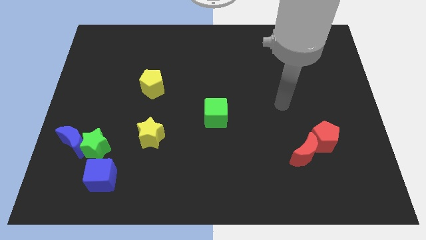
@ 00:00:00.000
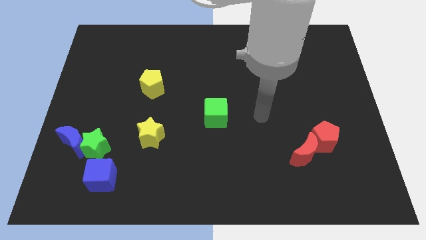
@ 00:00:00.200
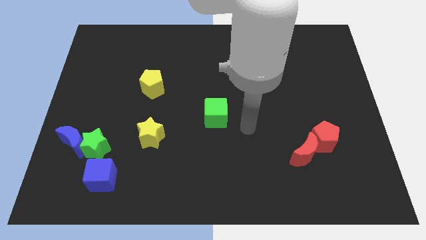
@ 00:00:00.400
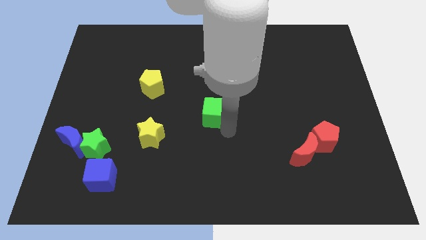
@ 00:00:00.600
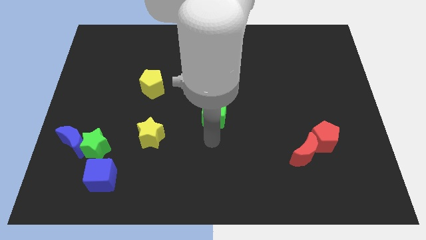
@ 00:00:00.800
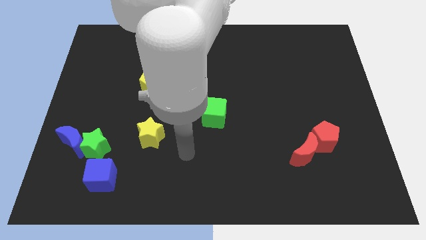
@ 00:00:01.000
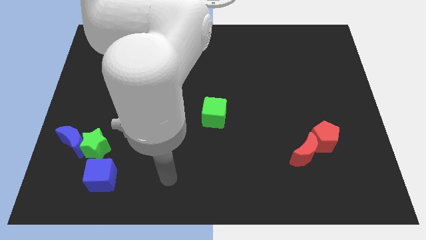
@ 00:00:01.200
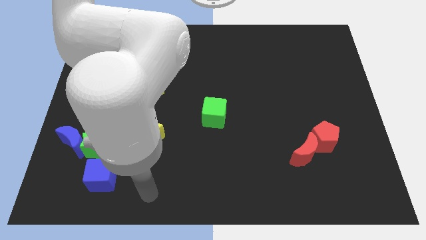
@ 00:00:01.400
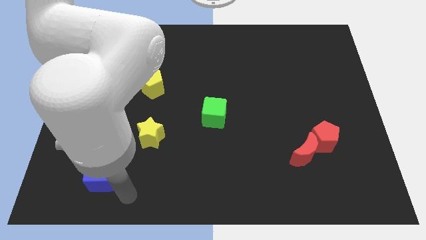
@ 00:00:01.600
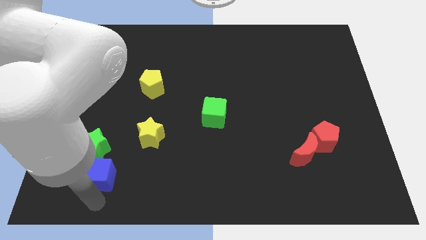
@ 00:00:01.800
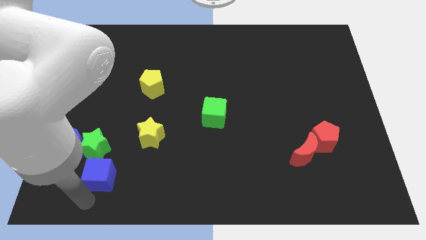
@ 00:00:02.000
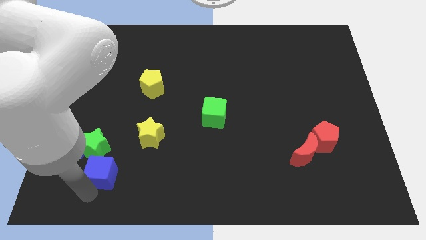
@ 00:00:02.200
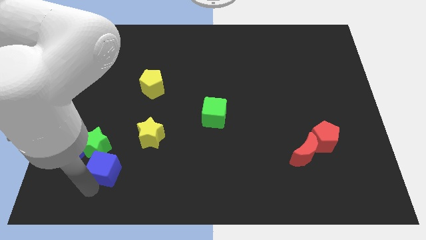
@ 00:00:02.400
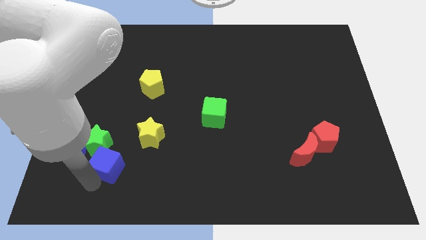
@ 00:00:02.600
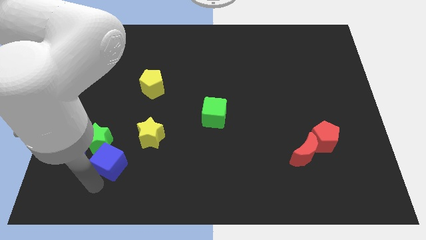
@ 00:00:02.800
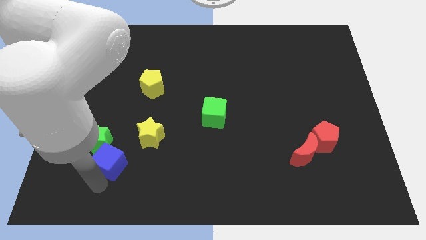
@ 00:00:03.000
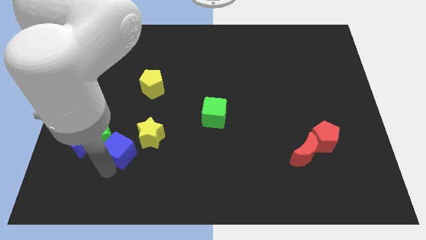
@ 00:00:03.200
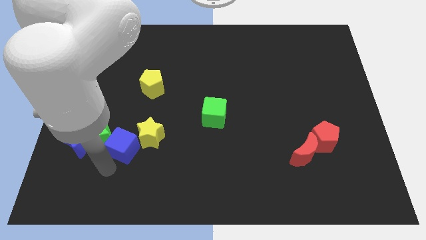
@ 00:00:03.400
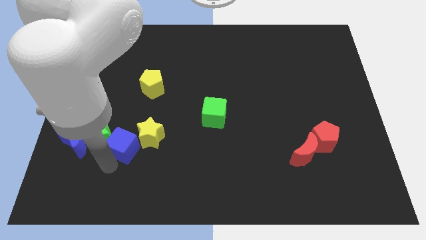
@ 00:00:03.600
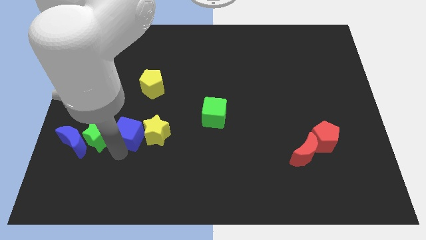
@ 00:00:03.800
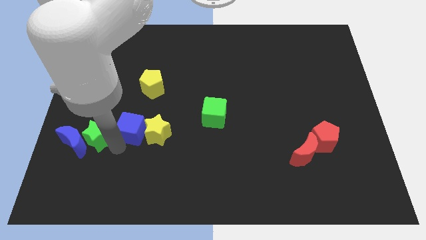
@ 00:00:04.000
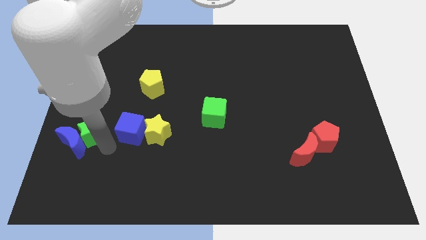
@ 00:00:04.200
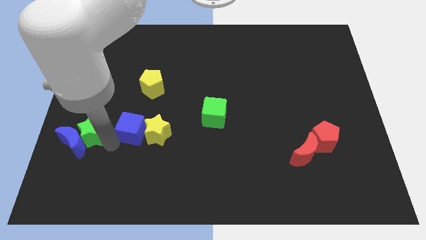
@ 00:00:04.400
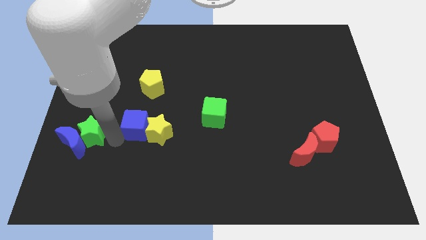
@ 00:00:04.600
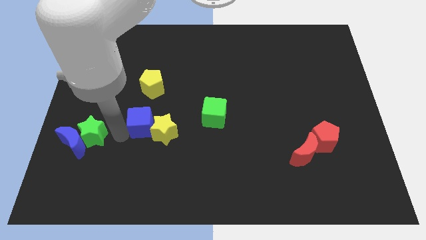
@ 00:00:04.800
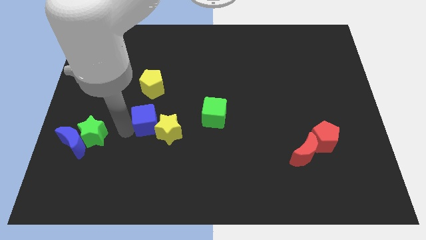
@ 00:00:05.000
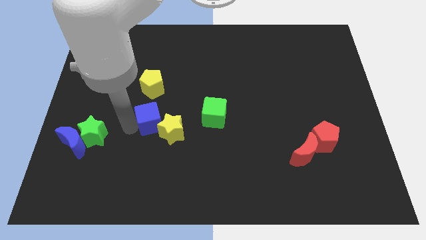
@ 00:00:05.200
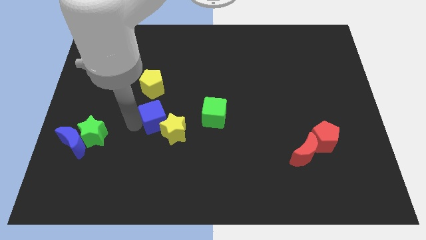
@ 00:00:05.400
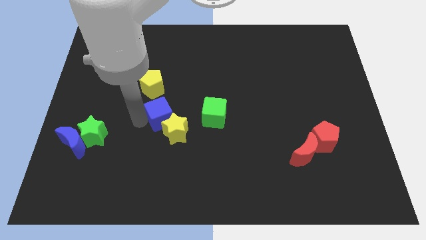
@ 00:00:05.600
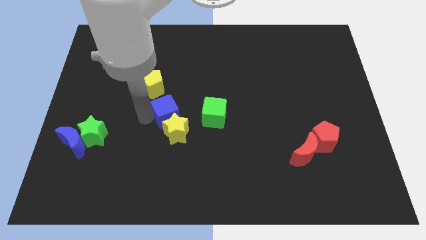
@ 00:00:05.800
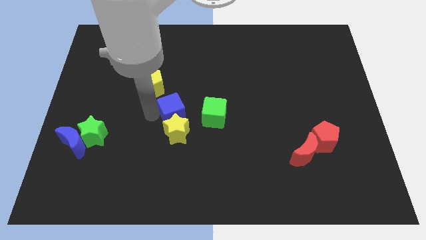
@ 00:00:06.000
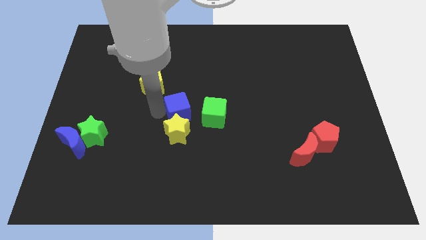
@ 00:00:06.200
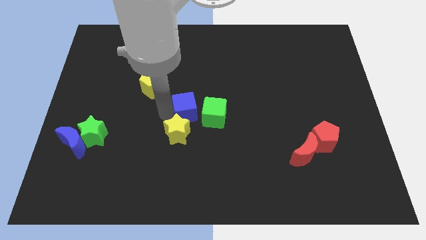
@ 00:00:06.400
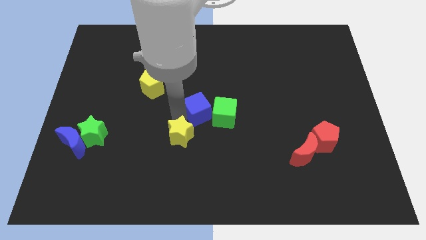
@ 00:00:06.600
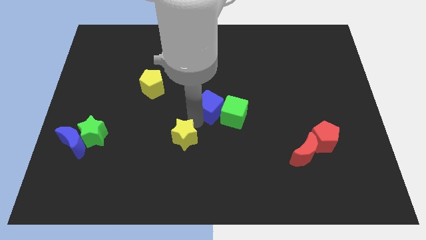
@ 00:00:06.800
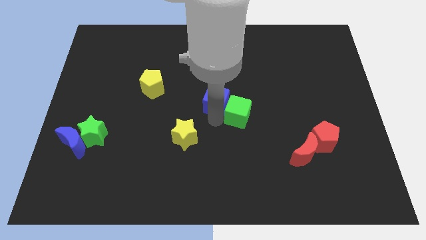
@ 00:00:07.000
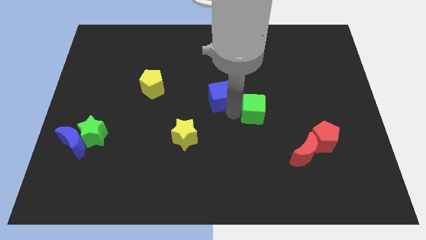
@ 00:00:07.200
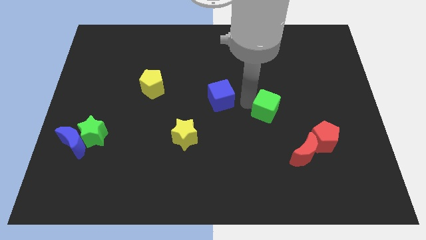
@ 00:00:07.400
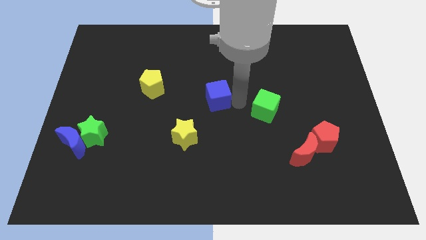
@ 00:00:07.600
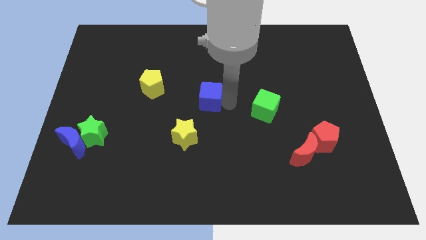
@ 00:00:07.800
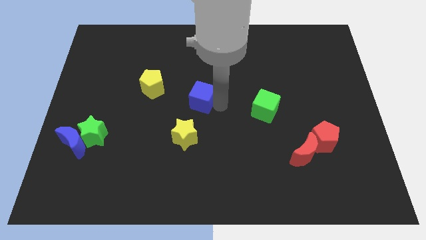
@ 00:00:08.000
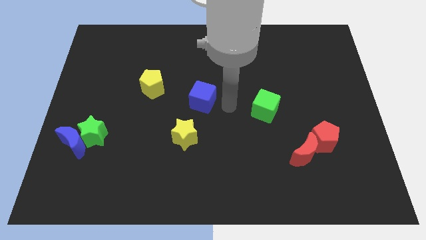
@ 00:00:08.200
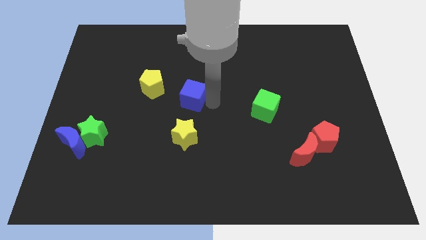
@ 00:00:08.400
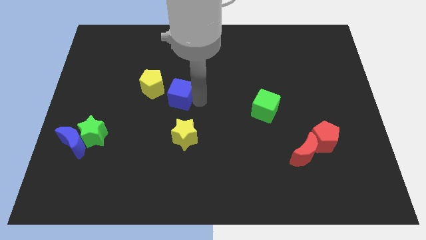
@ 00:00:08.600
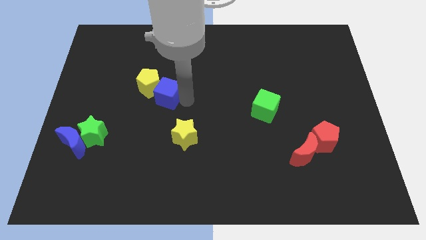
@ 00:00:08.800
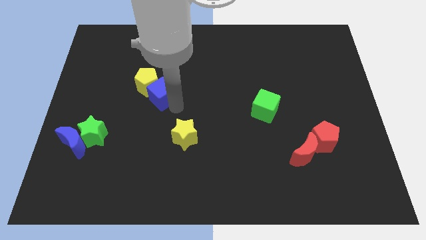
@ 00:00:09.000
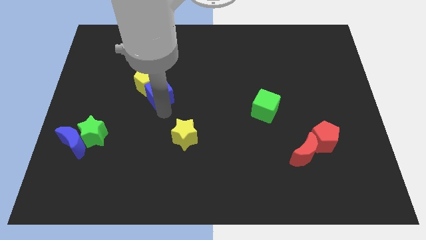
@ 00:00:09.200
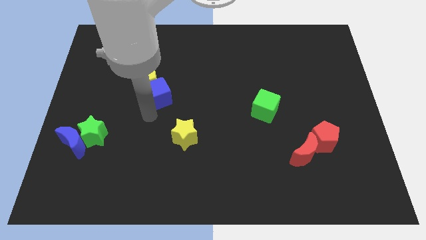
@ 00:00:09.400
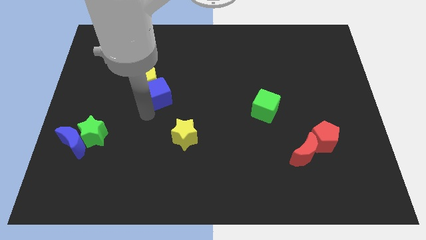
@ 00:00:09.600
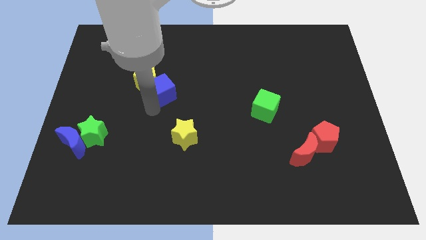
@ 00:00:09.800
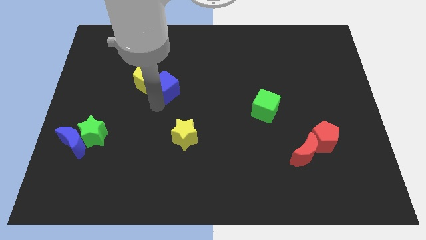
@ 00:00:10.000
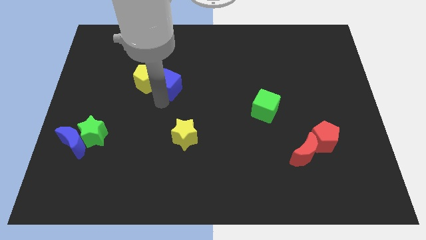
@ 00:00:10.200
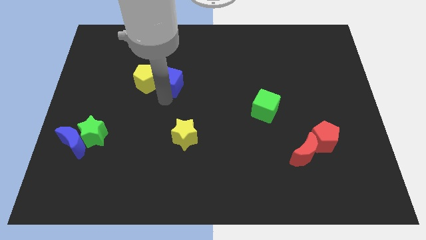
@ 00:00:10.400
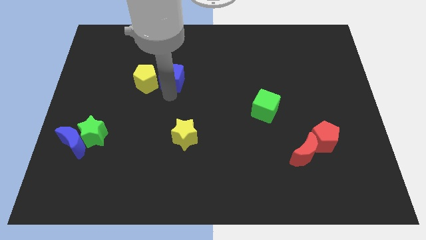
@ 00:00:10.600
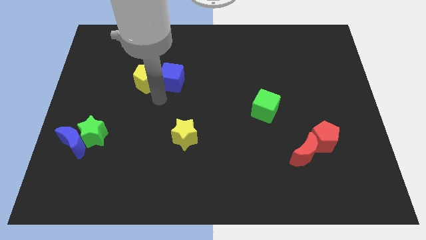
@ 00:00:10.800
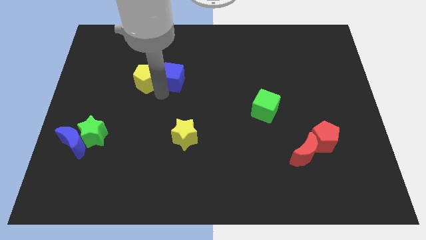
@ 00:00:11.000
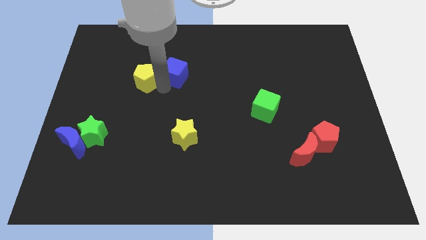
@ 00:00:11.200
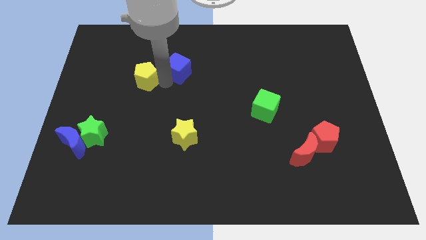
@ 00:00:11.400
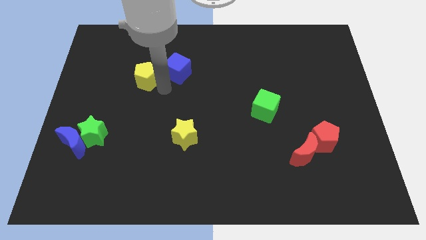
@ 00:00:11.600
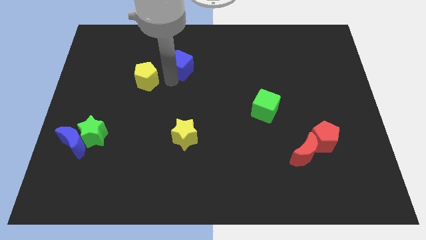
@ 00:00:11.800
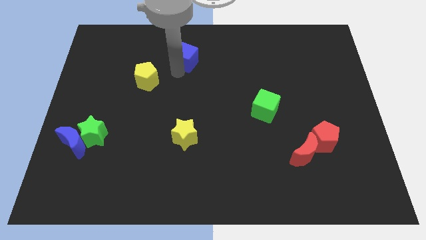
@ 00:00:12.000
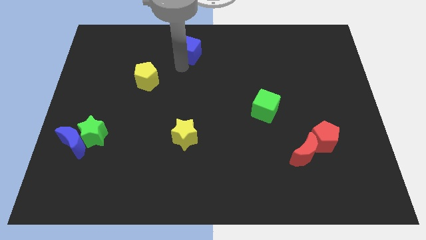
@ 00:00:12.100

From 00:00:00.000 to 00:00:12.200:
put the blue cube to the towards your base

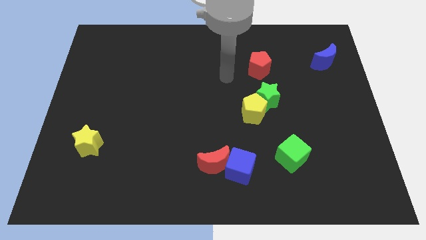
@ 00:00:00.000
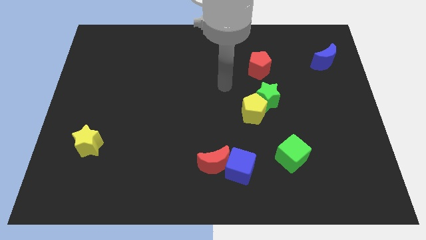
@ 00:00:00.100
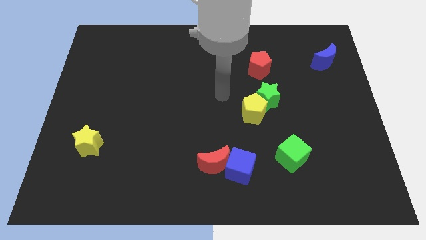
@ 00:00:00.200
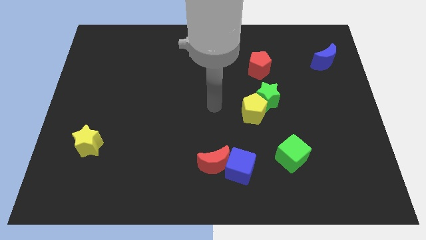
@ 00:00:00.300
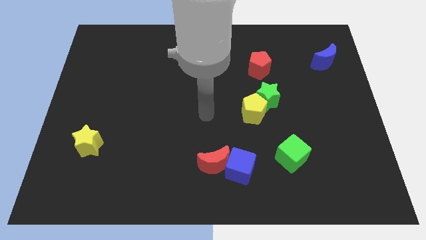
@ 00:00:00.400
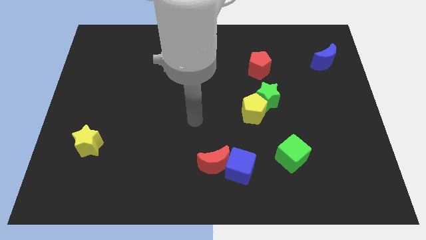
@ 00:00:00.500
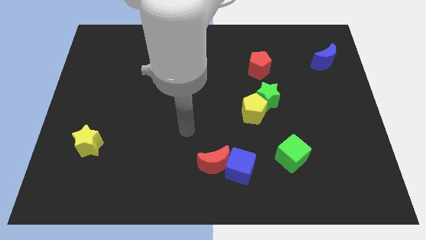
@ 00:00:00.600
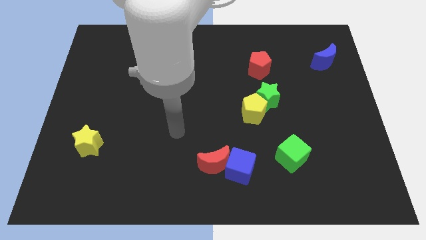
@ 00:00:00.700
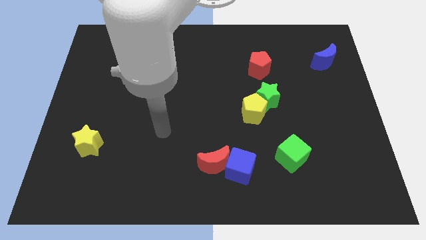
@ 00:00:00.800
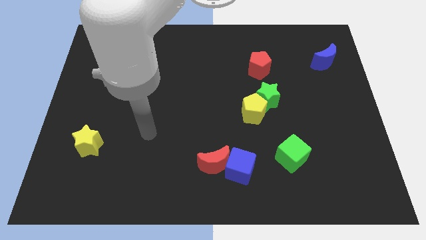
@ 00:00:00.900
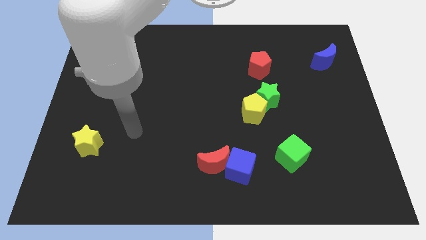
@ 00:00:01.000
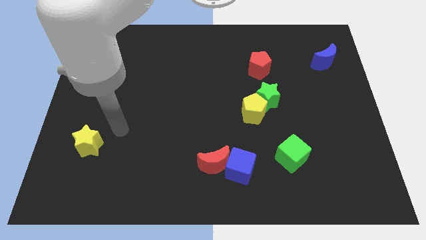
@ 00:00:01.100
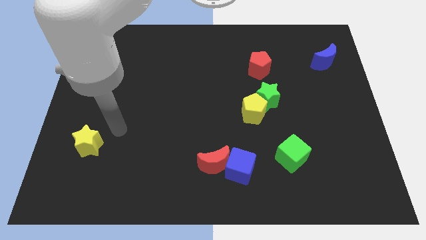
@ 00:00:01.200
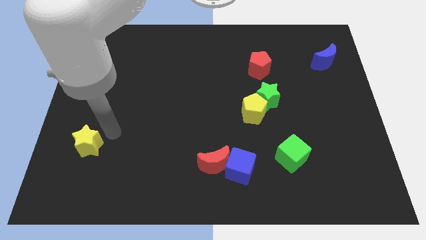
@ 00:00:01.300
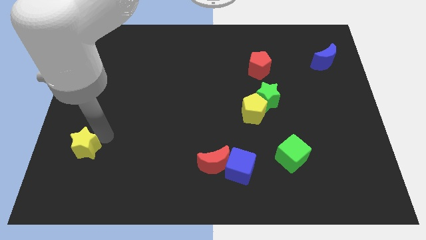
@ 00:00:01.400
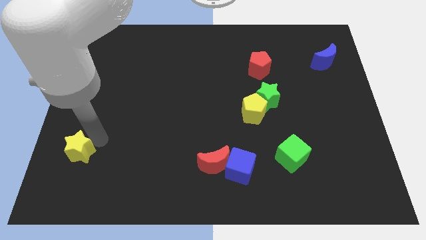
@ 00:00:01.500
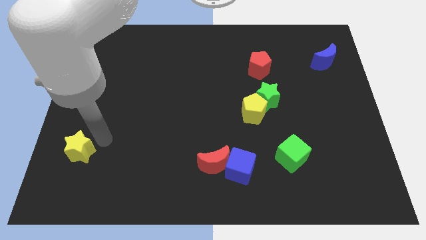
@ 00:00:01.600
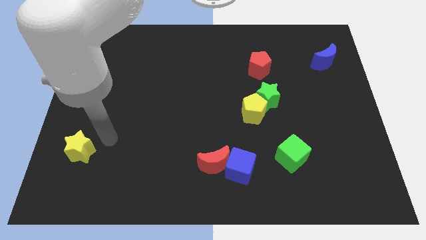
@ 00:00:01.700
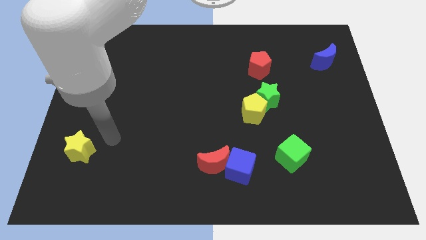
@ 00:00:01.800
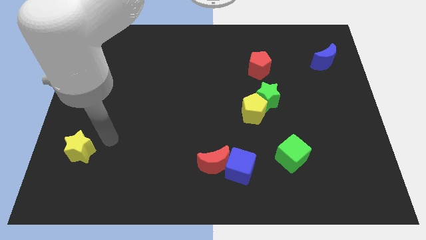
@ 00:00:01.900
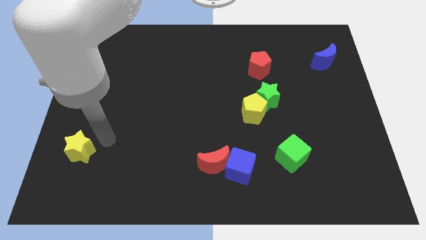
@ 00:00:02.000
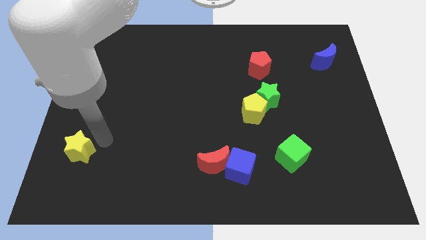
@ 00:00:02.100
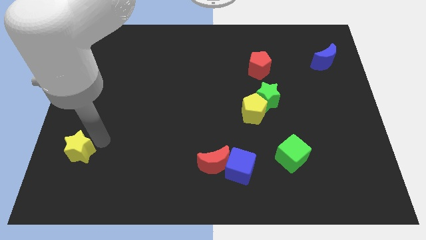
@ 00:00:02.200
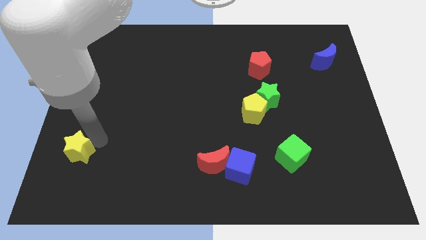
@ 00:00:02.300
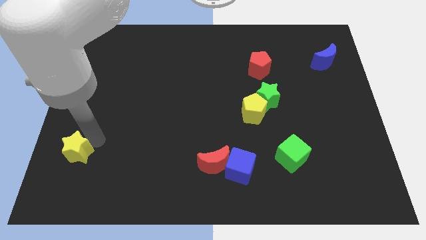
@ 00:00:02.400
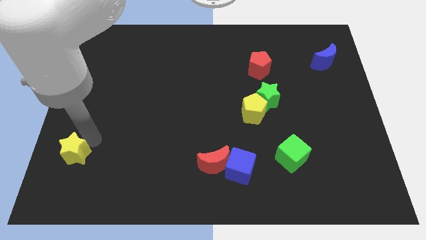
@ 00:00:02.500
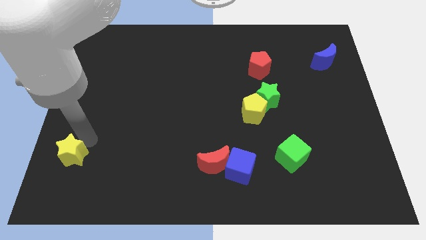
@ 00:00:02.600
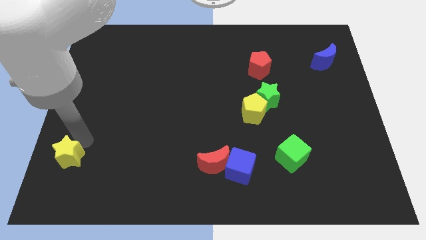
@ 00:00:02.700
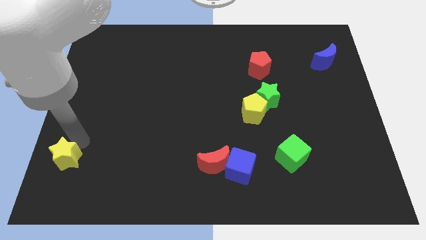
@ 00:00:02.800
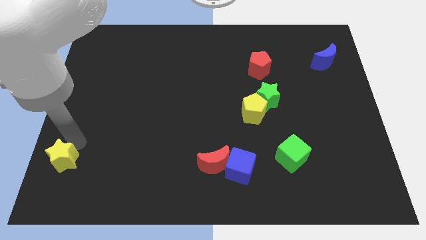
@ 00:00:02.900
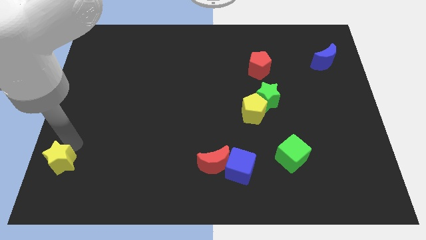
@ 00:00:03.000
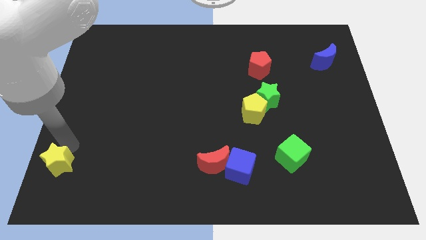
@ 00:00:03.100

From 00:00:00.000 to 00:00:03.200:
move the yellow star to the bottom left of the board
